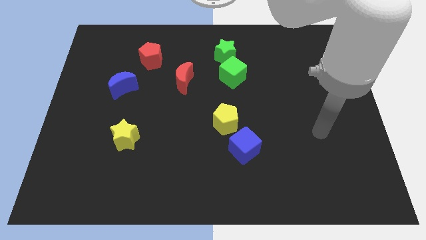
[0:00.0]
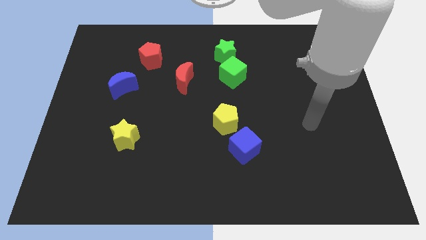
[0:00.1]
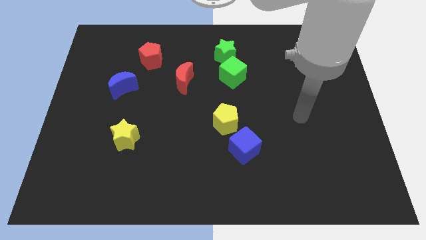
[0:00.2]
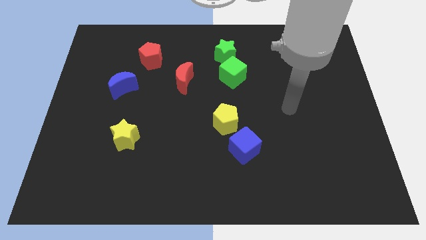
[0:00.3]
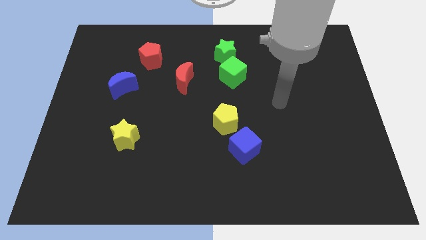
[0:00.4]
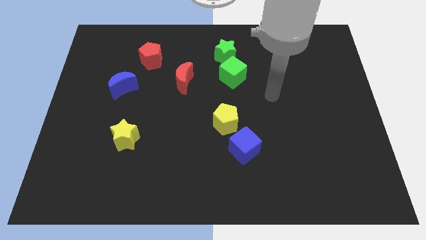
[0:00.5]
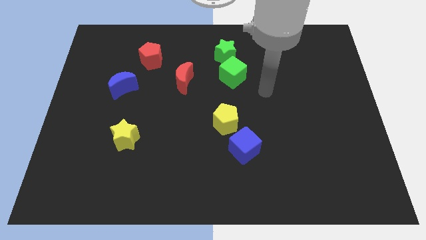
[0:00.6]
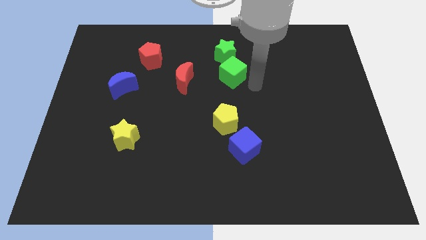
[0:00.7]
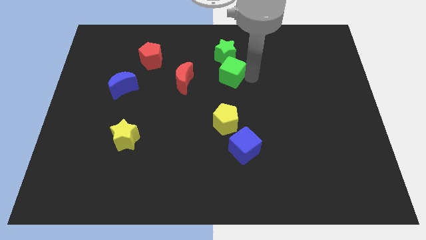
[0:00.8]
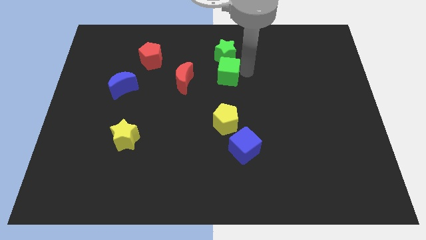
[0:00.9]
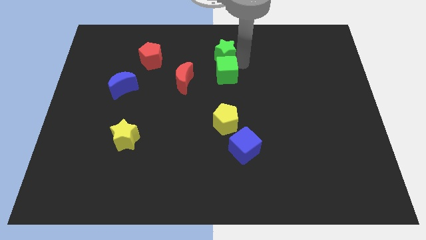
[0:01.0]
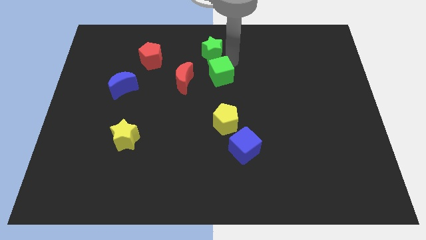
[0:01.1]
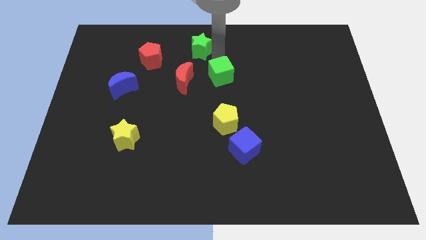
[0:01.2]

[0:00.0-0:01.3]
pull the green cube apart from the green star

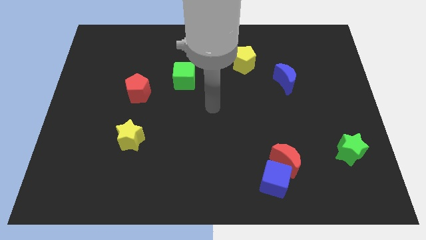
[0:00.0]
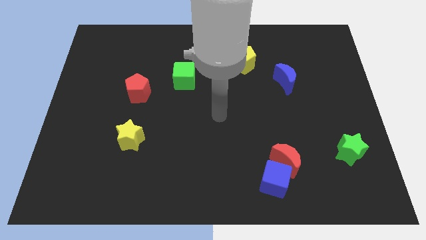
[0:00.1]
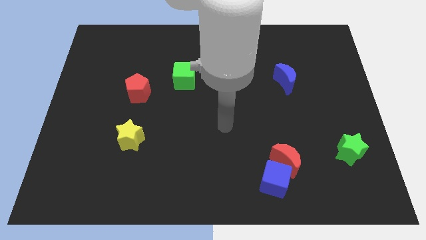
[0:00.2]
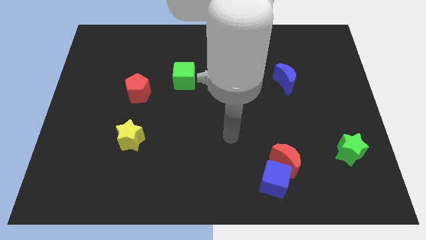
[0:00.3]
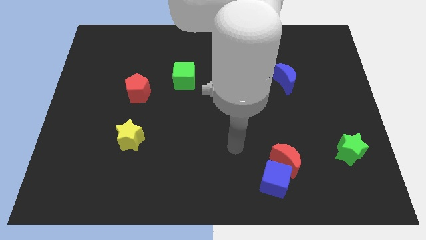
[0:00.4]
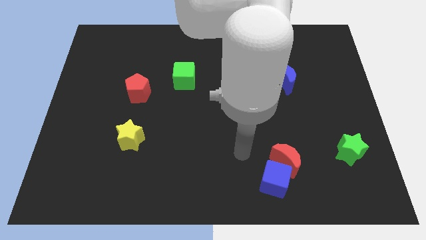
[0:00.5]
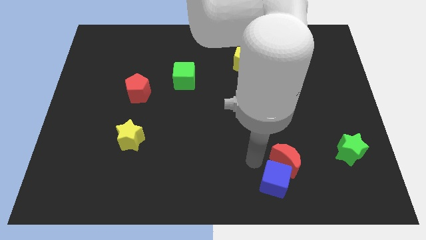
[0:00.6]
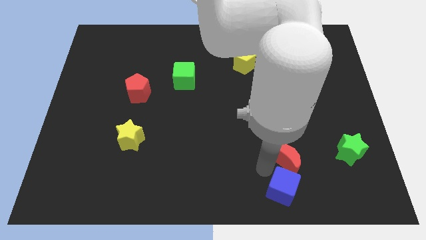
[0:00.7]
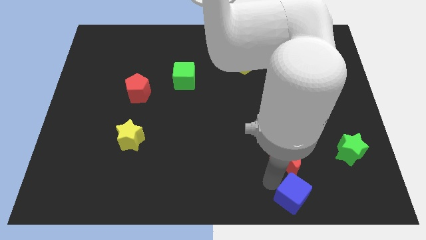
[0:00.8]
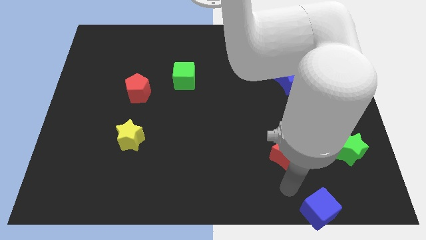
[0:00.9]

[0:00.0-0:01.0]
separate the red moon from the blue cube

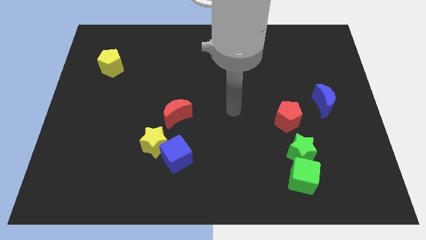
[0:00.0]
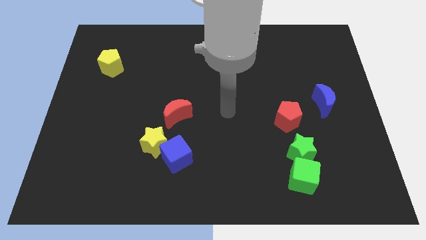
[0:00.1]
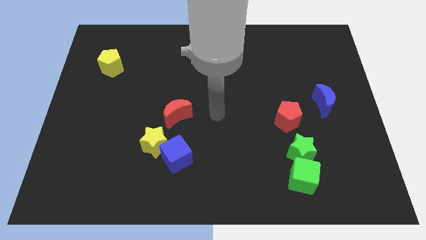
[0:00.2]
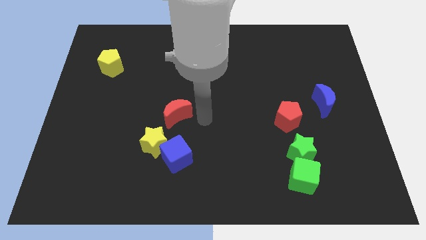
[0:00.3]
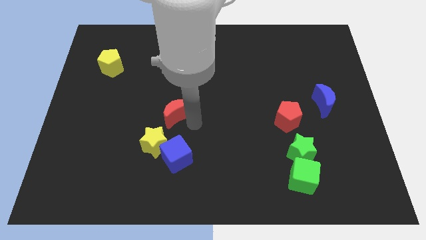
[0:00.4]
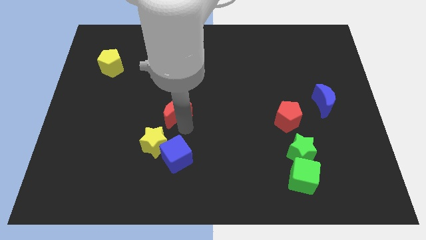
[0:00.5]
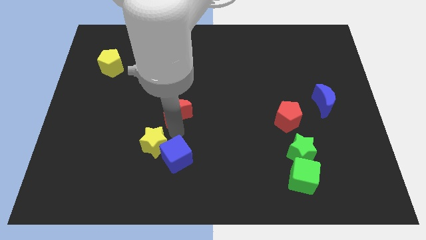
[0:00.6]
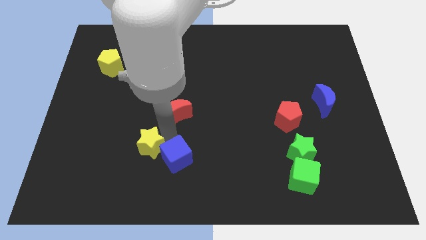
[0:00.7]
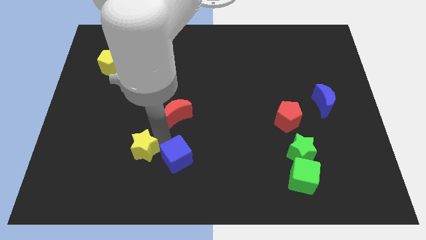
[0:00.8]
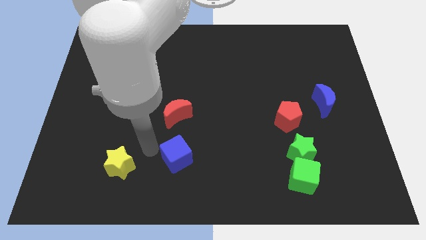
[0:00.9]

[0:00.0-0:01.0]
separate the blue cube from the yellow star

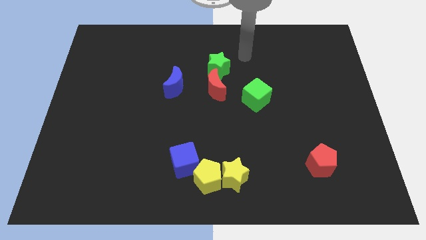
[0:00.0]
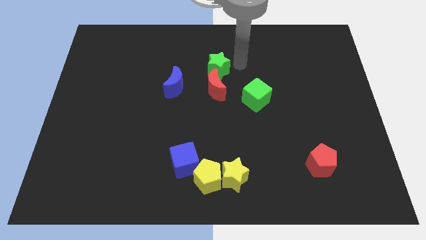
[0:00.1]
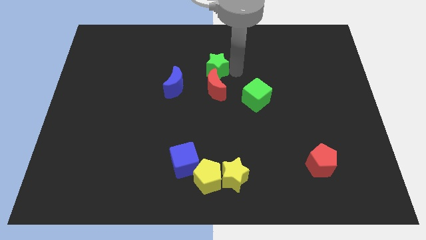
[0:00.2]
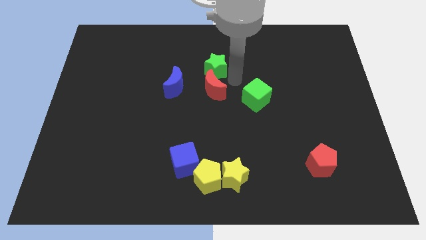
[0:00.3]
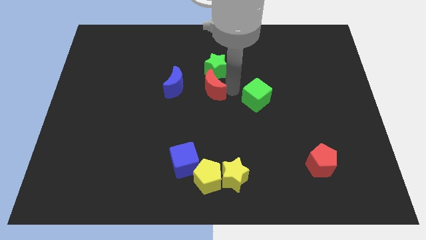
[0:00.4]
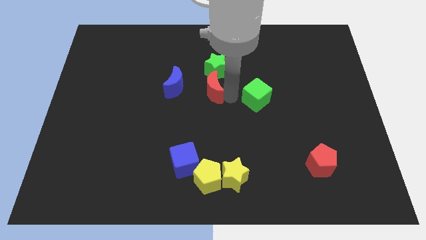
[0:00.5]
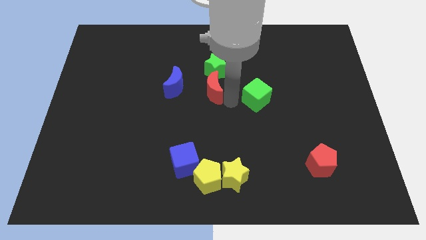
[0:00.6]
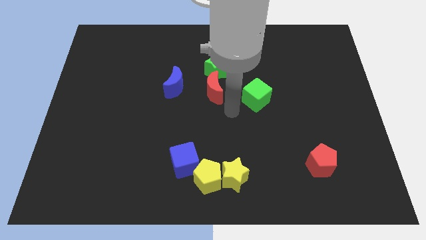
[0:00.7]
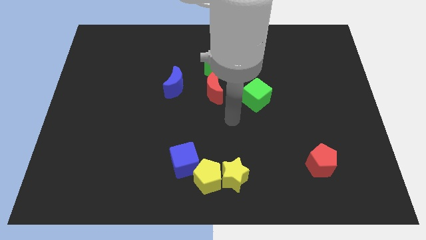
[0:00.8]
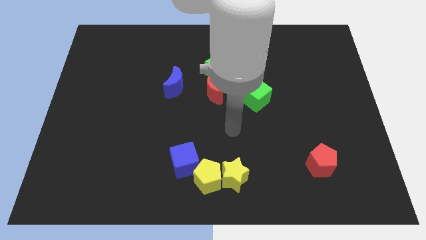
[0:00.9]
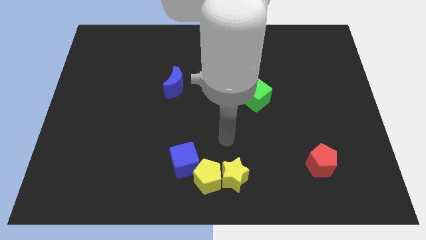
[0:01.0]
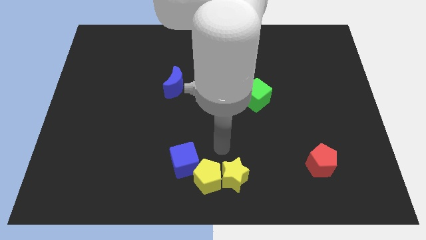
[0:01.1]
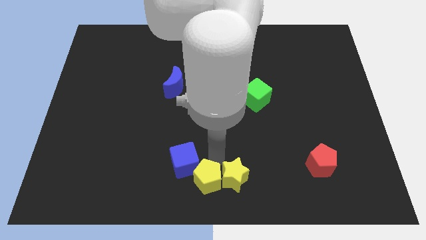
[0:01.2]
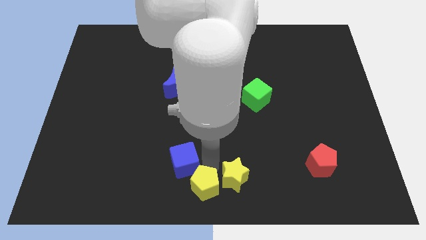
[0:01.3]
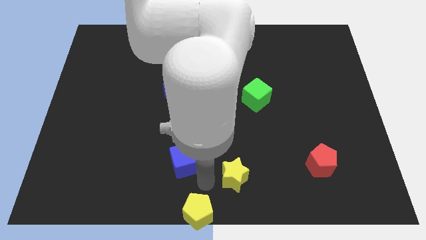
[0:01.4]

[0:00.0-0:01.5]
pull the yellow star apart from the yellow pentagon

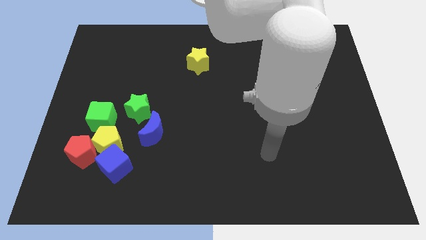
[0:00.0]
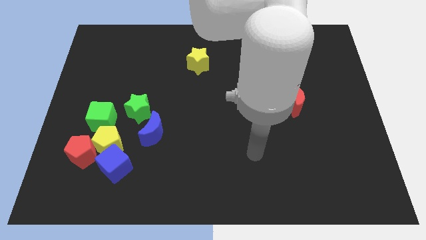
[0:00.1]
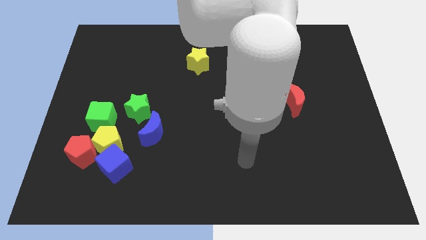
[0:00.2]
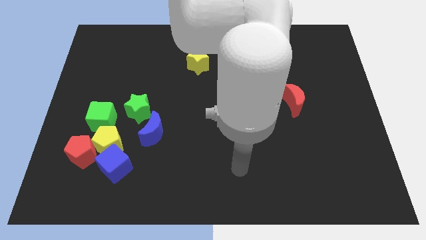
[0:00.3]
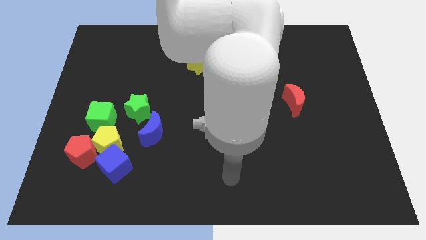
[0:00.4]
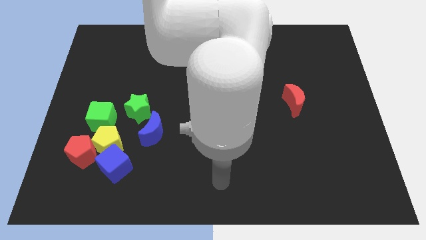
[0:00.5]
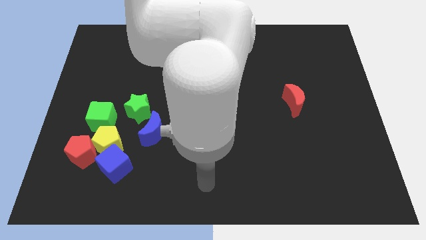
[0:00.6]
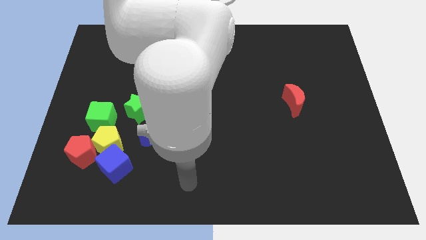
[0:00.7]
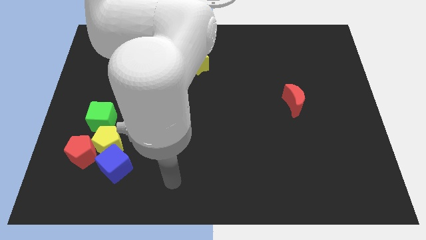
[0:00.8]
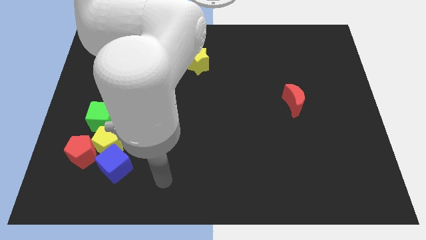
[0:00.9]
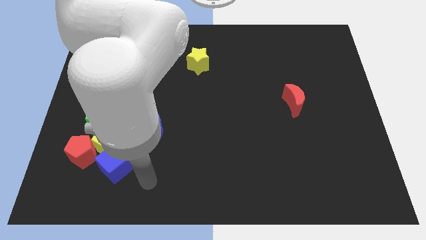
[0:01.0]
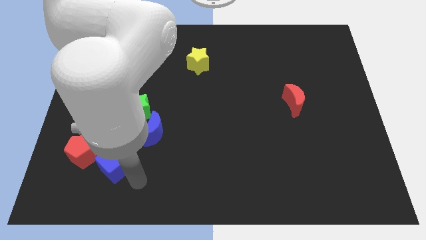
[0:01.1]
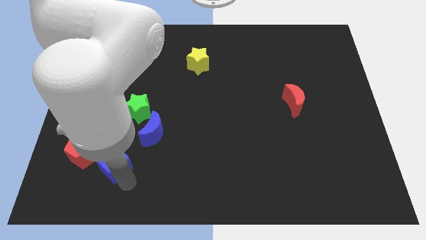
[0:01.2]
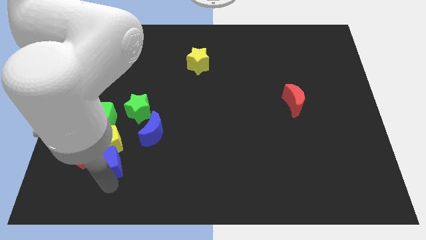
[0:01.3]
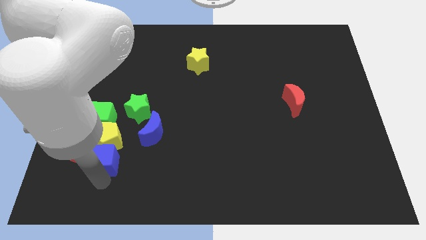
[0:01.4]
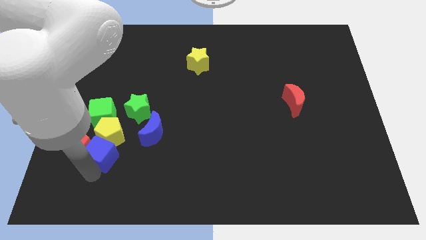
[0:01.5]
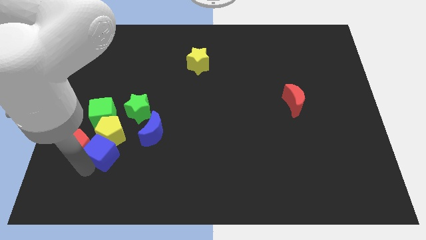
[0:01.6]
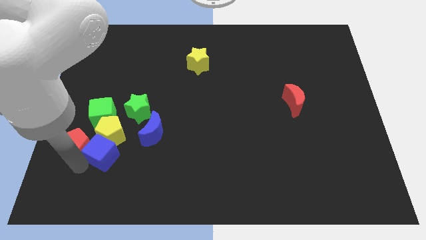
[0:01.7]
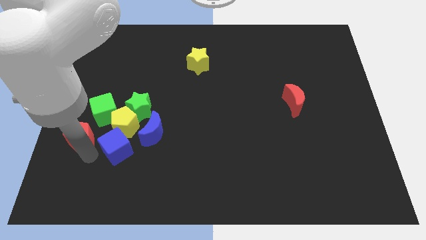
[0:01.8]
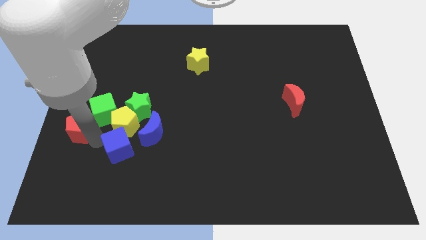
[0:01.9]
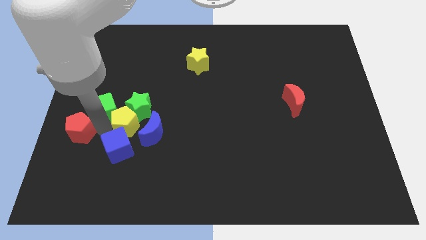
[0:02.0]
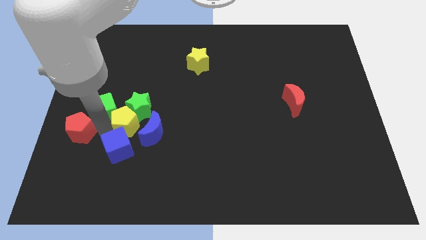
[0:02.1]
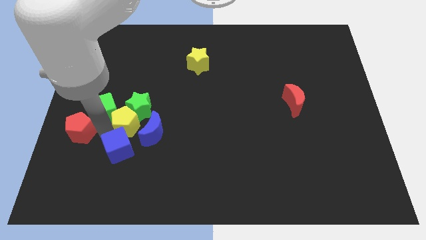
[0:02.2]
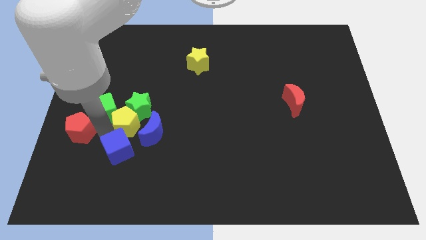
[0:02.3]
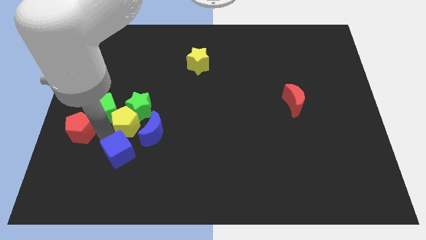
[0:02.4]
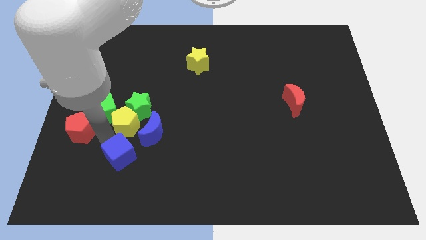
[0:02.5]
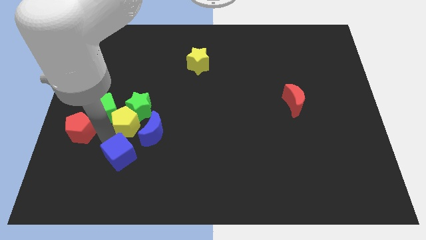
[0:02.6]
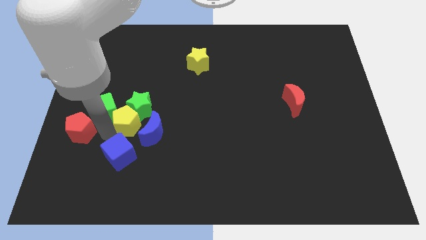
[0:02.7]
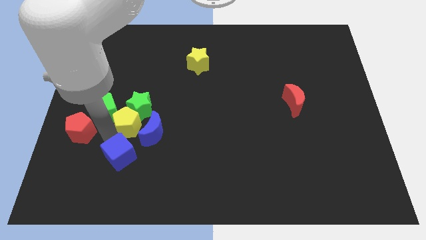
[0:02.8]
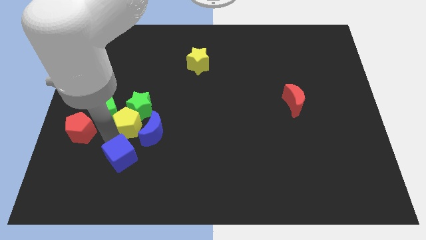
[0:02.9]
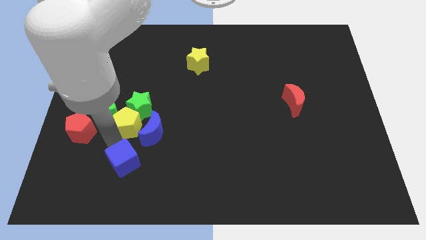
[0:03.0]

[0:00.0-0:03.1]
separate the blue cube from the yellow pentagon and red pentagon

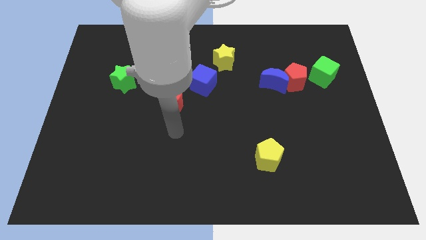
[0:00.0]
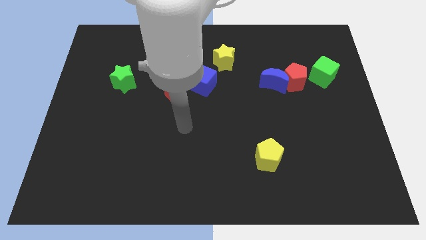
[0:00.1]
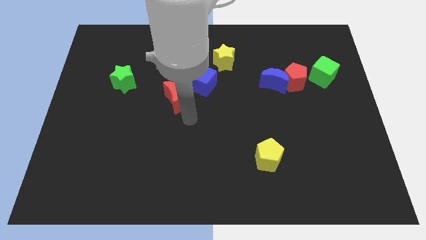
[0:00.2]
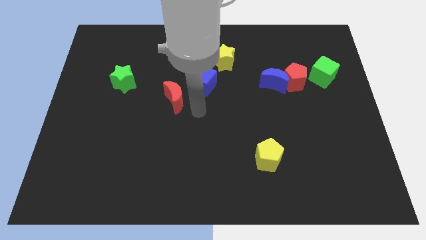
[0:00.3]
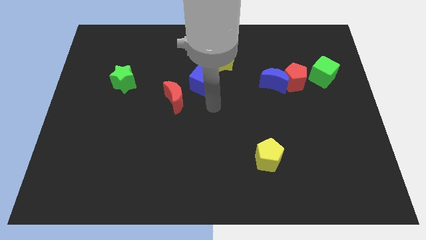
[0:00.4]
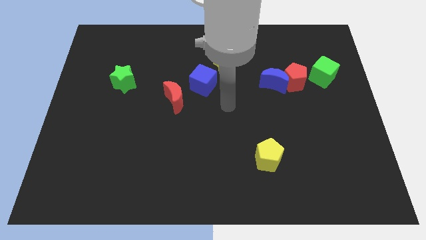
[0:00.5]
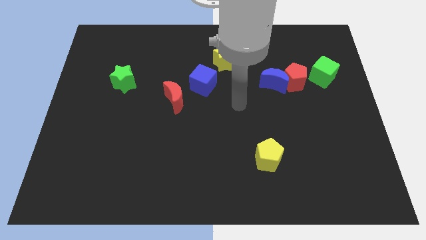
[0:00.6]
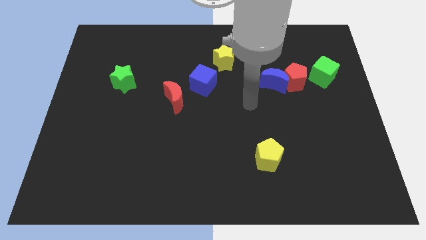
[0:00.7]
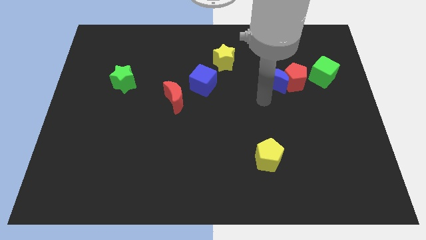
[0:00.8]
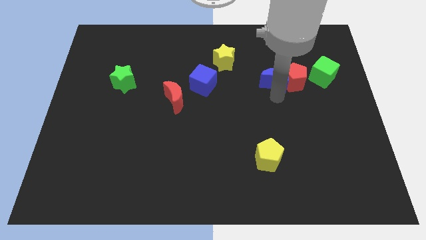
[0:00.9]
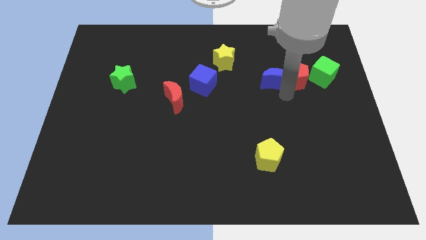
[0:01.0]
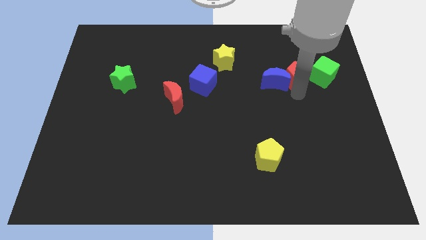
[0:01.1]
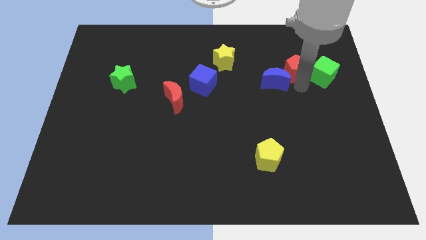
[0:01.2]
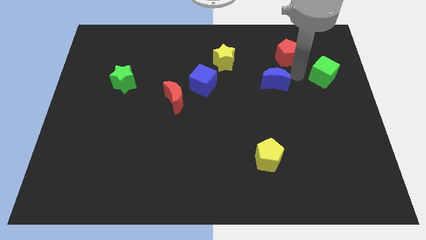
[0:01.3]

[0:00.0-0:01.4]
pull the blue moon apart from the red pentagon
